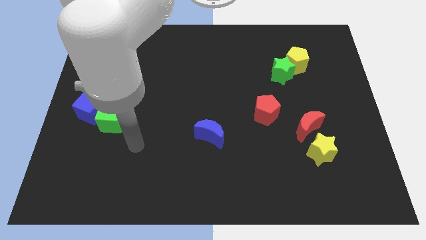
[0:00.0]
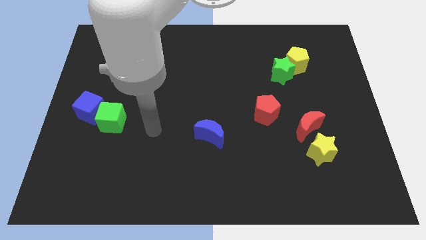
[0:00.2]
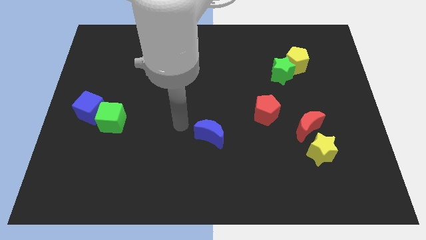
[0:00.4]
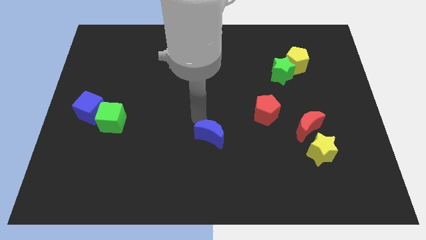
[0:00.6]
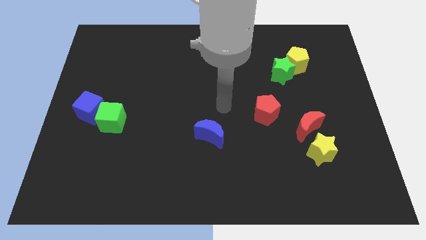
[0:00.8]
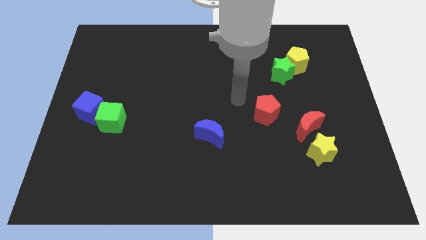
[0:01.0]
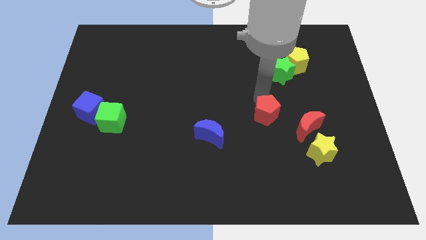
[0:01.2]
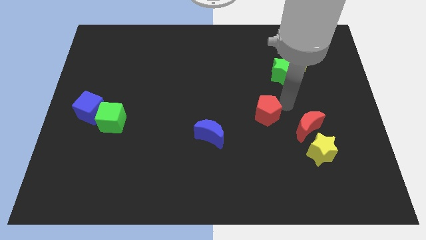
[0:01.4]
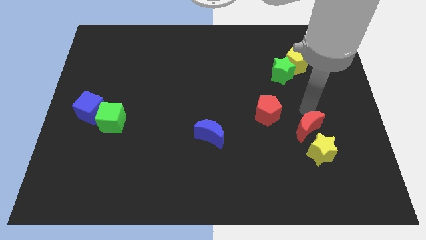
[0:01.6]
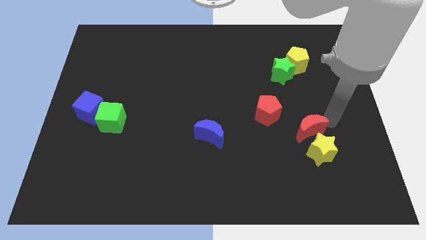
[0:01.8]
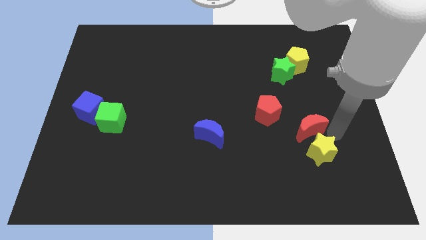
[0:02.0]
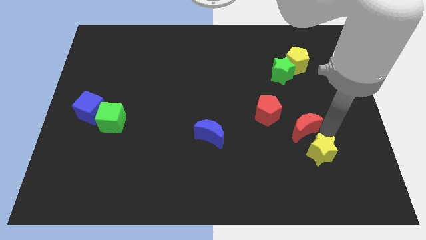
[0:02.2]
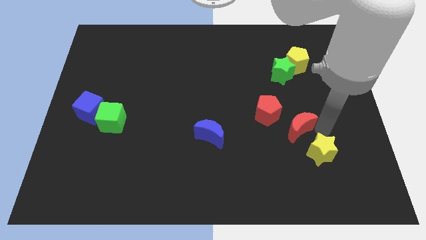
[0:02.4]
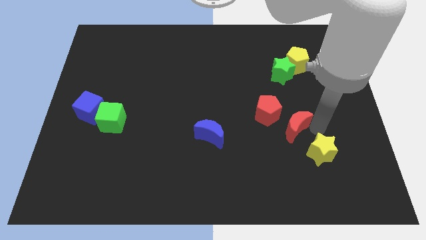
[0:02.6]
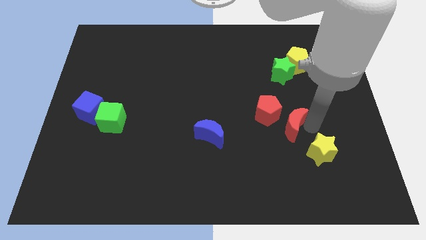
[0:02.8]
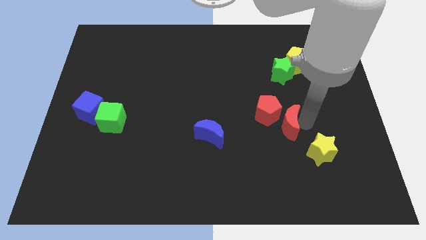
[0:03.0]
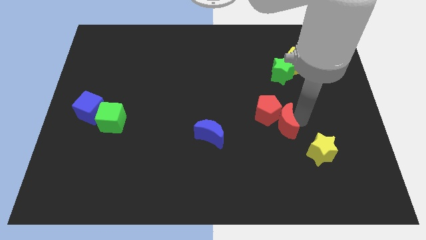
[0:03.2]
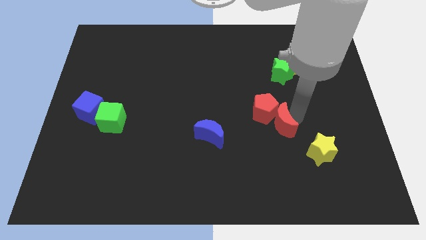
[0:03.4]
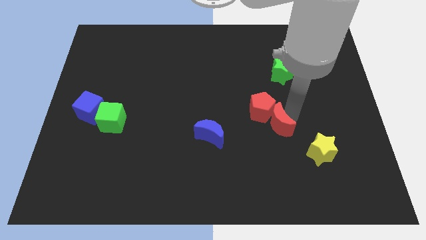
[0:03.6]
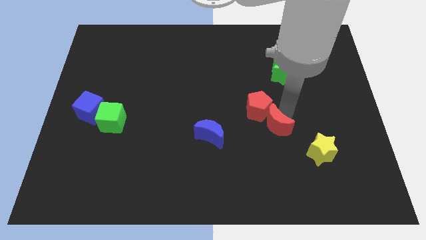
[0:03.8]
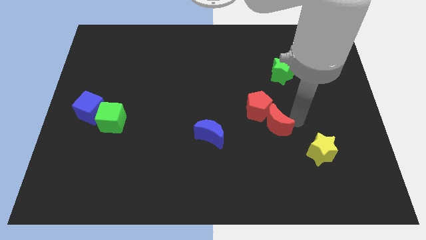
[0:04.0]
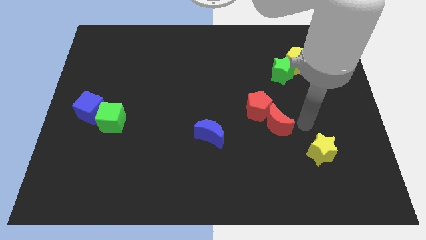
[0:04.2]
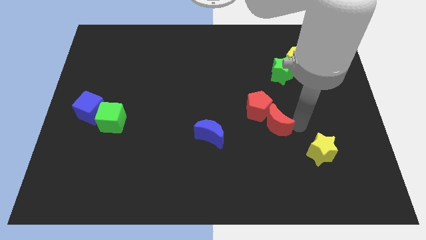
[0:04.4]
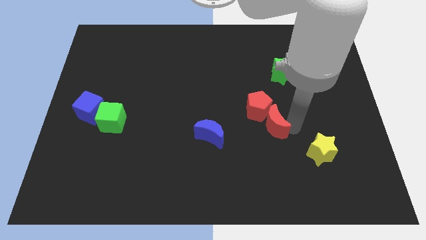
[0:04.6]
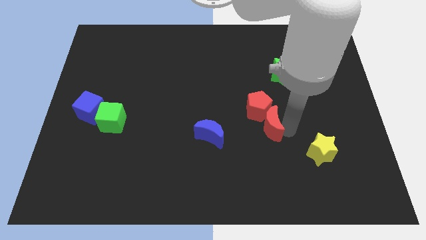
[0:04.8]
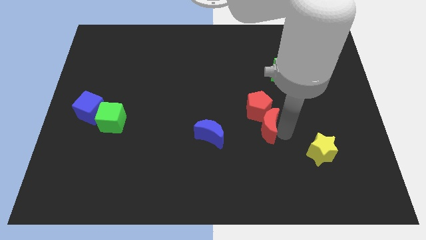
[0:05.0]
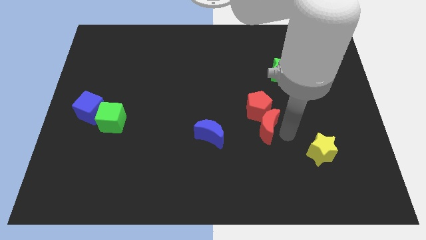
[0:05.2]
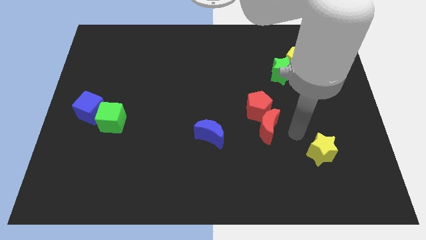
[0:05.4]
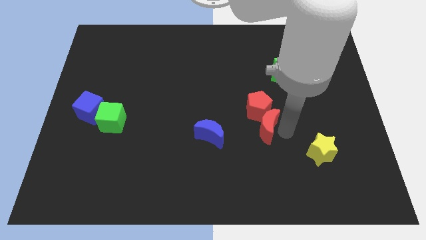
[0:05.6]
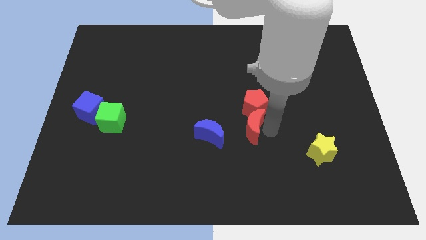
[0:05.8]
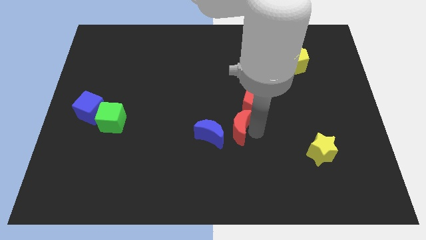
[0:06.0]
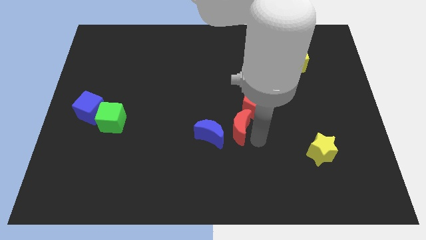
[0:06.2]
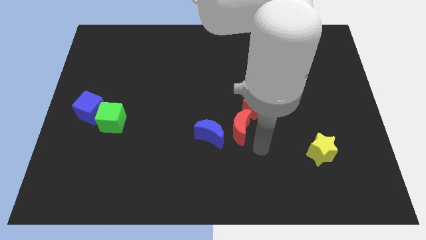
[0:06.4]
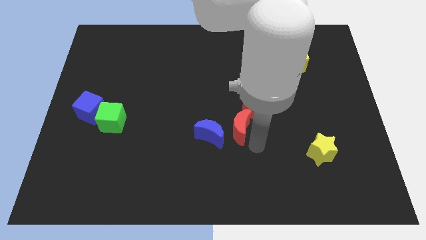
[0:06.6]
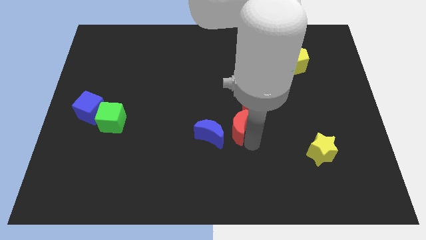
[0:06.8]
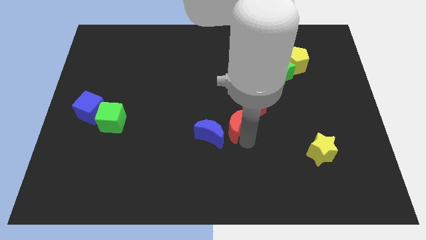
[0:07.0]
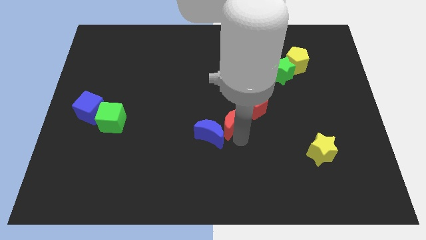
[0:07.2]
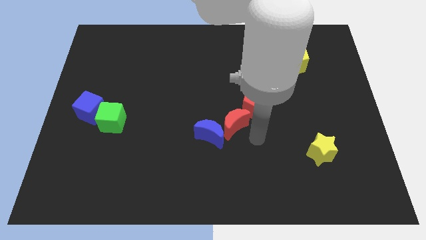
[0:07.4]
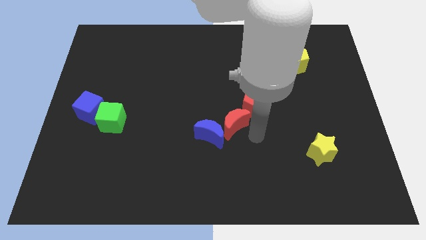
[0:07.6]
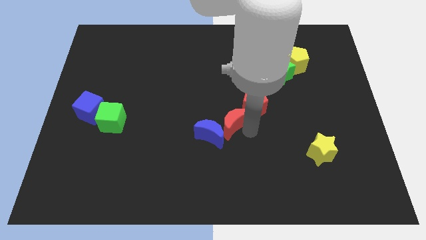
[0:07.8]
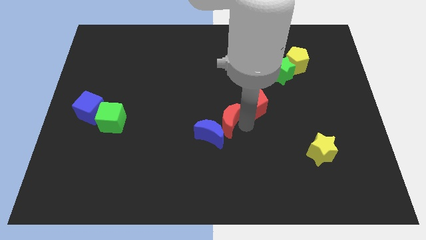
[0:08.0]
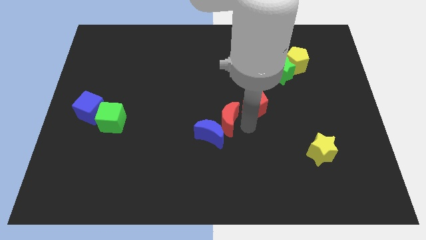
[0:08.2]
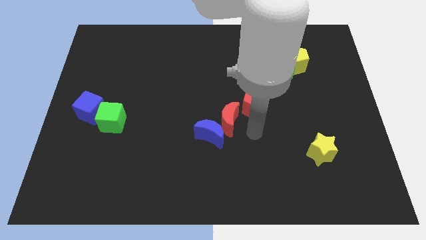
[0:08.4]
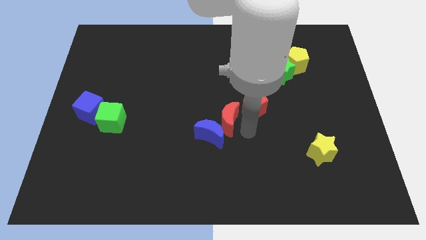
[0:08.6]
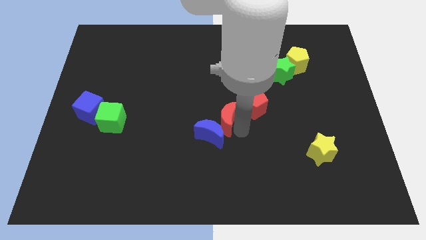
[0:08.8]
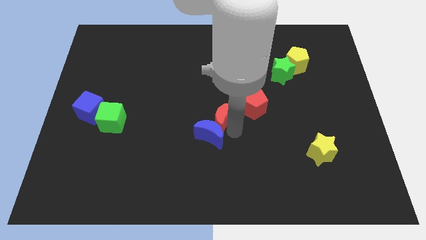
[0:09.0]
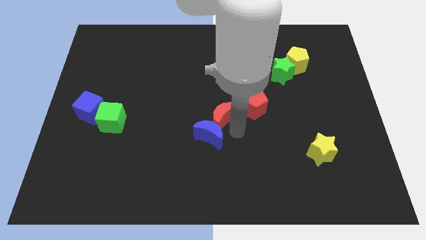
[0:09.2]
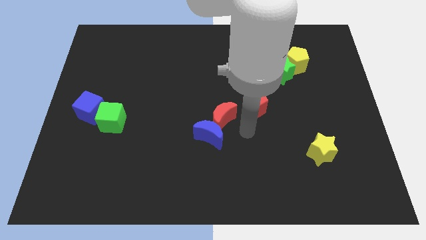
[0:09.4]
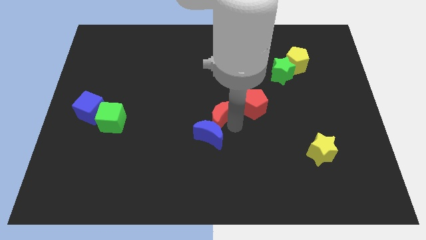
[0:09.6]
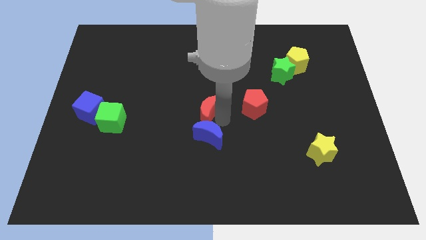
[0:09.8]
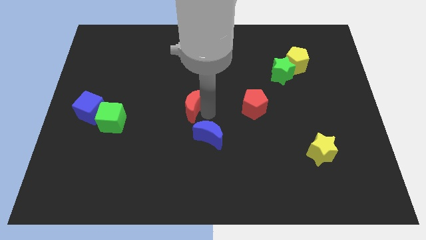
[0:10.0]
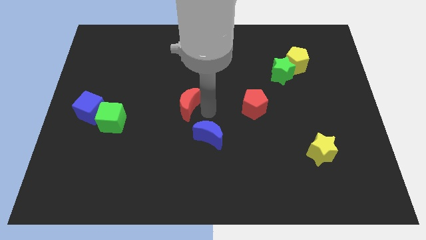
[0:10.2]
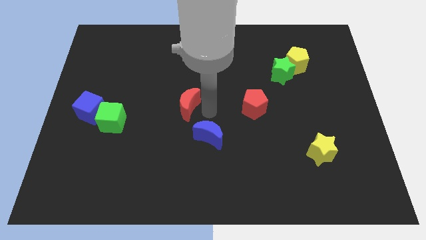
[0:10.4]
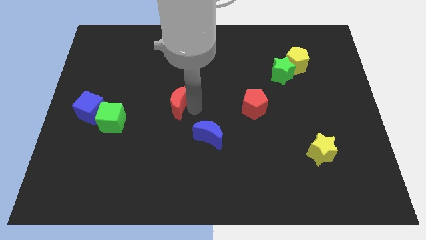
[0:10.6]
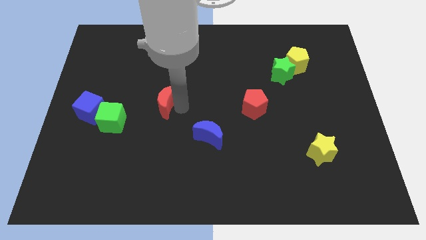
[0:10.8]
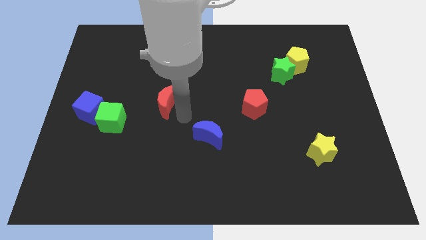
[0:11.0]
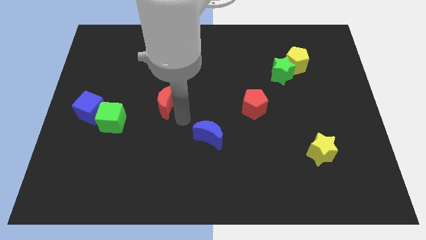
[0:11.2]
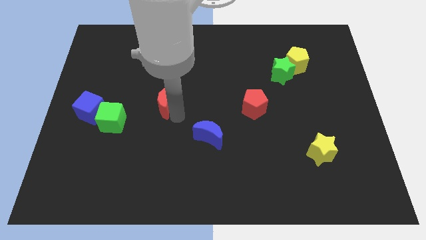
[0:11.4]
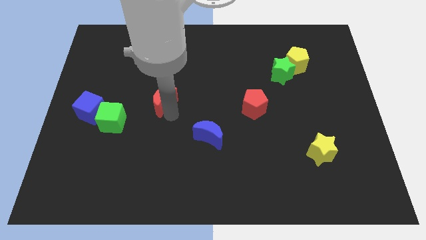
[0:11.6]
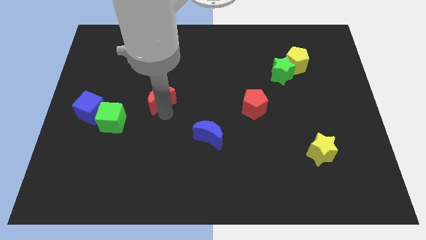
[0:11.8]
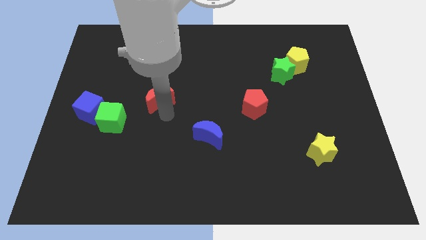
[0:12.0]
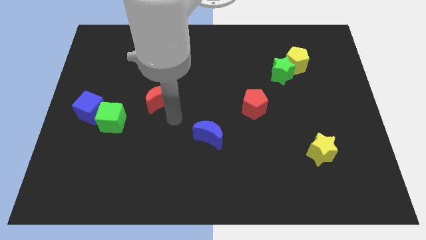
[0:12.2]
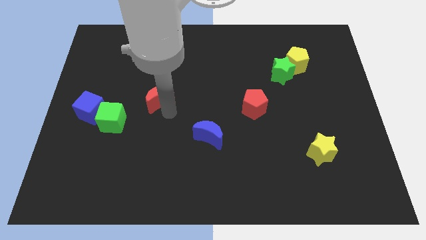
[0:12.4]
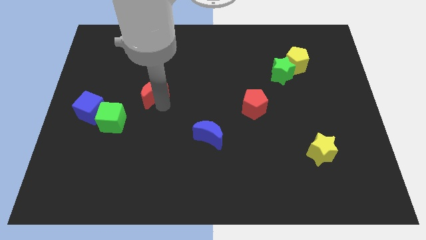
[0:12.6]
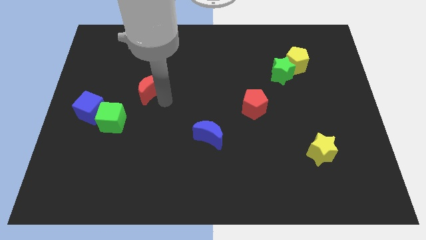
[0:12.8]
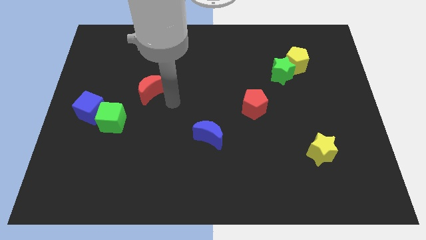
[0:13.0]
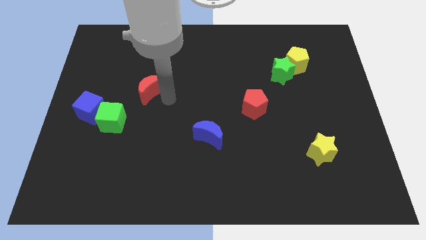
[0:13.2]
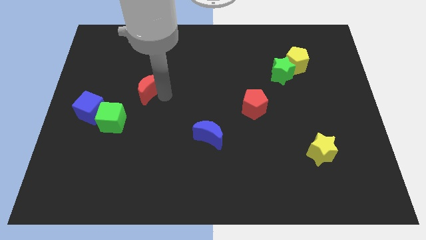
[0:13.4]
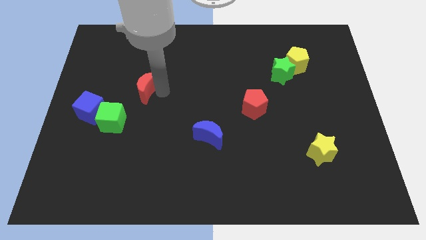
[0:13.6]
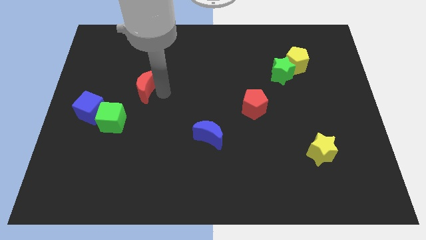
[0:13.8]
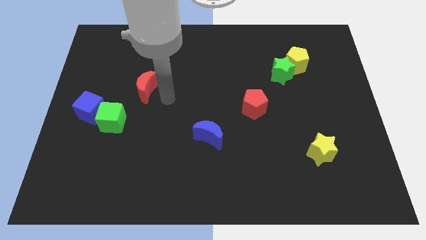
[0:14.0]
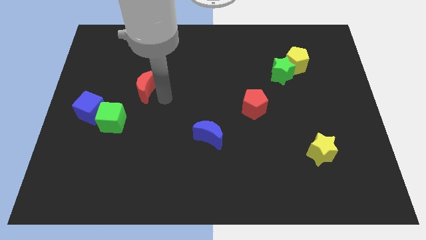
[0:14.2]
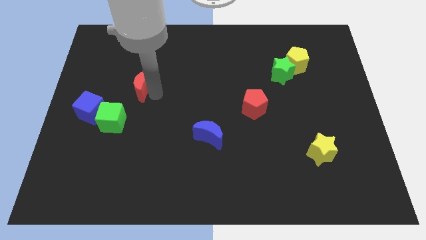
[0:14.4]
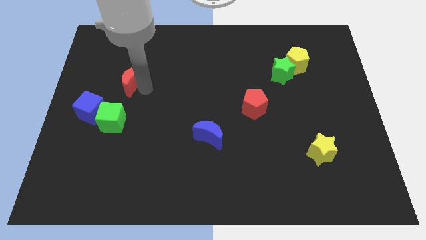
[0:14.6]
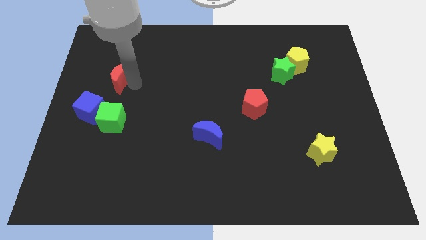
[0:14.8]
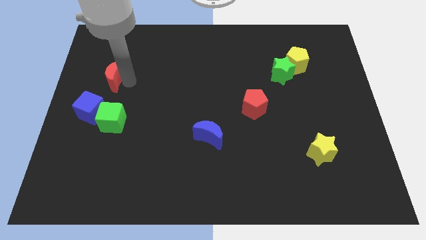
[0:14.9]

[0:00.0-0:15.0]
slide the red moon to the top of the blue cube

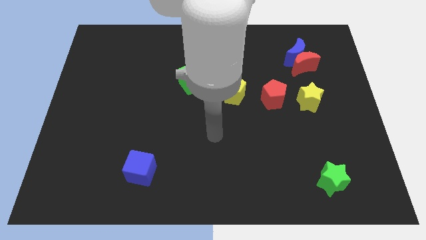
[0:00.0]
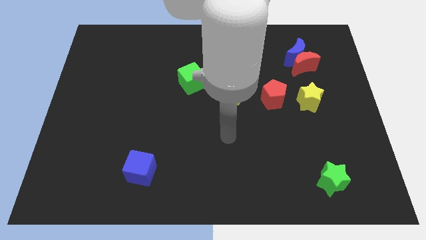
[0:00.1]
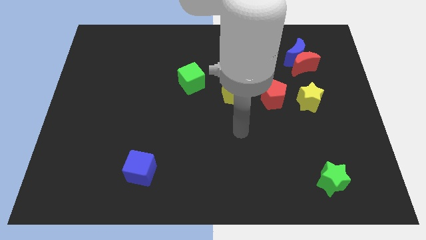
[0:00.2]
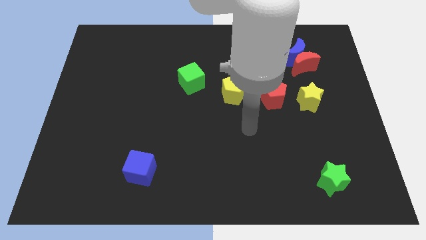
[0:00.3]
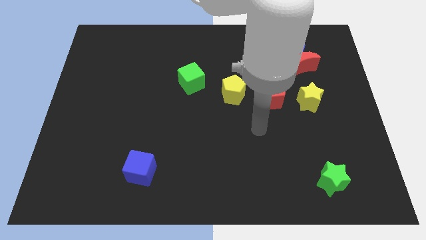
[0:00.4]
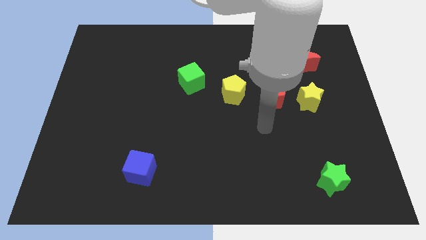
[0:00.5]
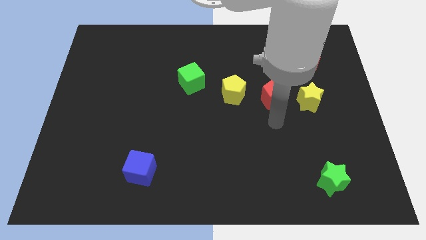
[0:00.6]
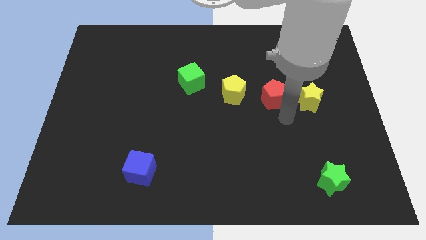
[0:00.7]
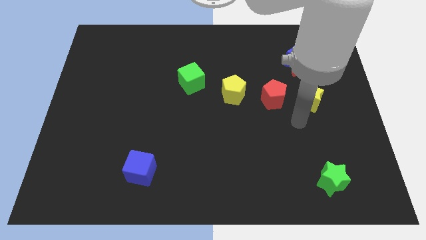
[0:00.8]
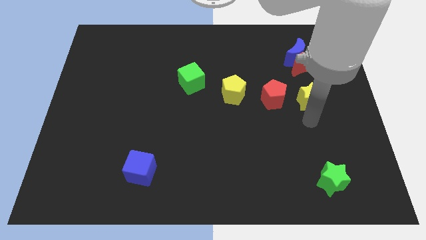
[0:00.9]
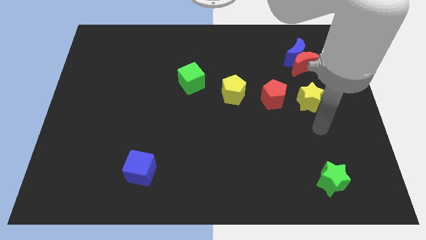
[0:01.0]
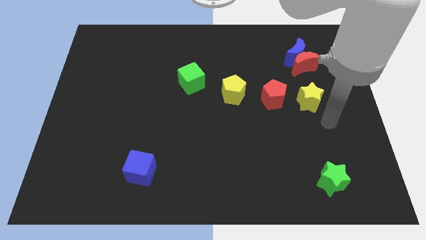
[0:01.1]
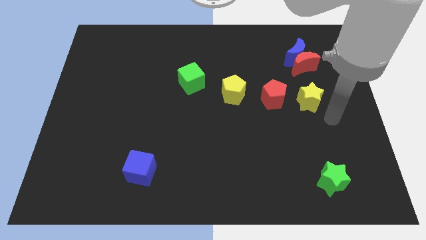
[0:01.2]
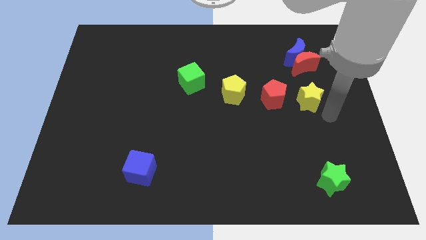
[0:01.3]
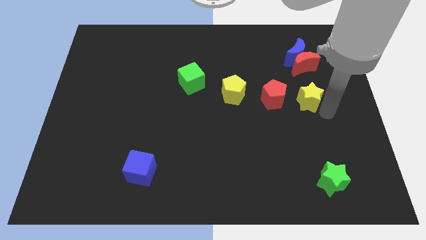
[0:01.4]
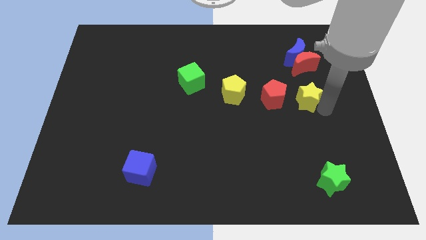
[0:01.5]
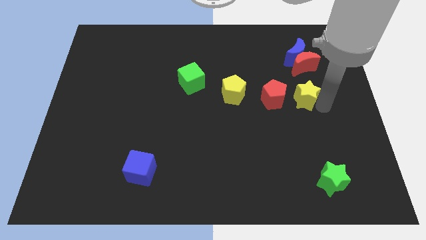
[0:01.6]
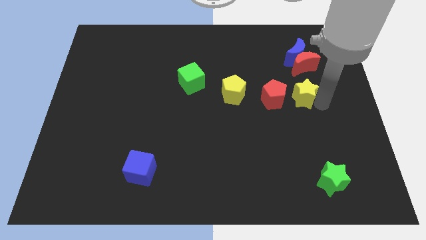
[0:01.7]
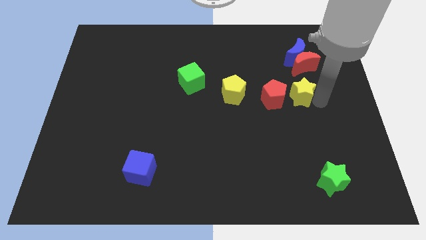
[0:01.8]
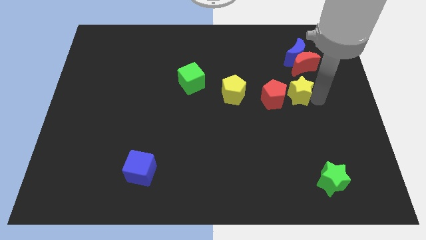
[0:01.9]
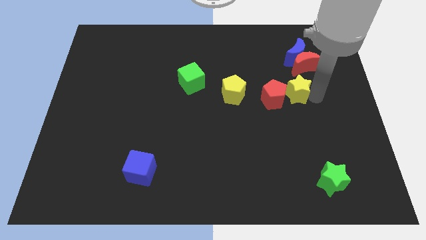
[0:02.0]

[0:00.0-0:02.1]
put the yellow star to the bottom left of the red moon
